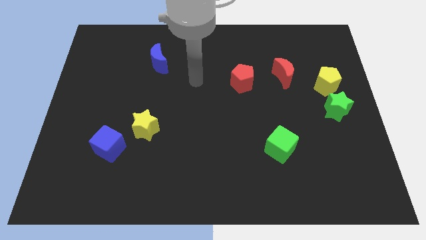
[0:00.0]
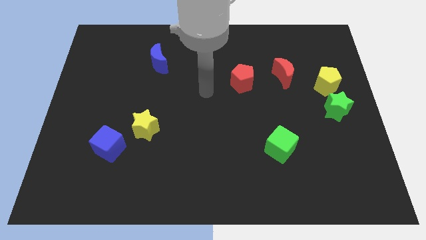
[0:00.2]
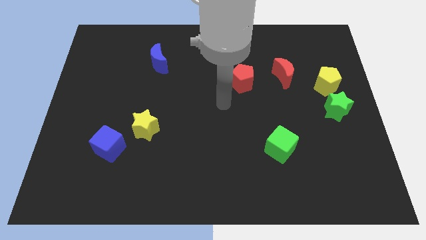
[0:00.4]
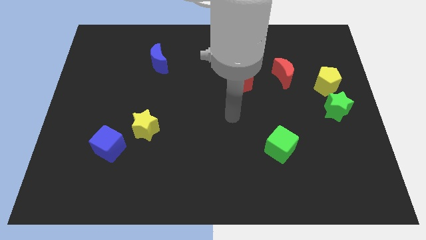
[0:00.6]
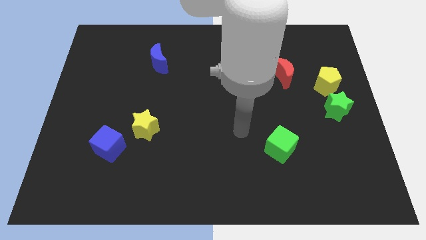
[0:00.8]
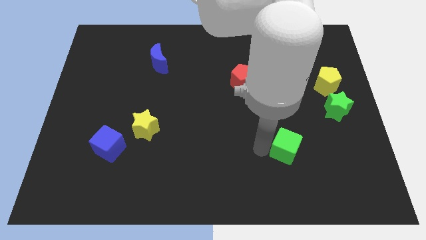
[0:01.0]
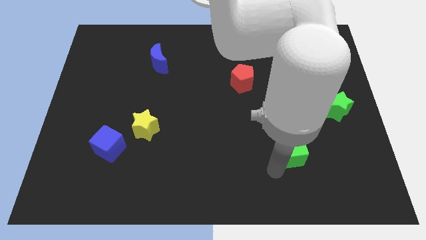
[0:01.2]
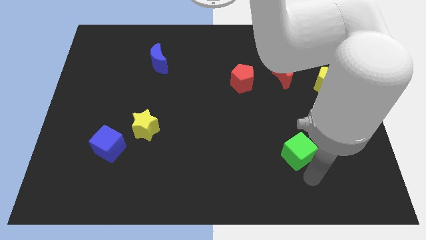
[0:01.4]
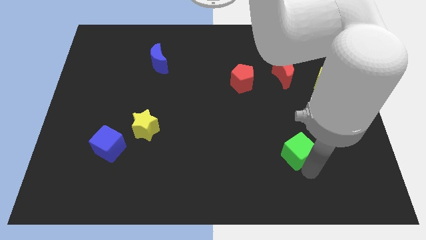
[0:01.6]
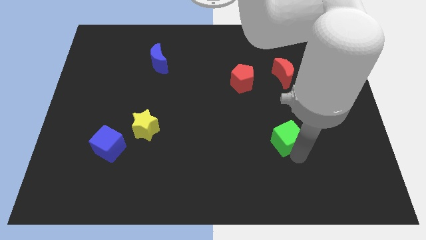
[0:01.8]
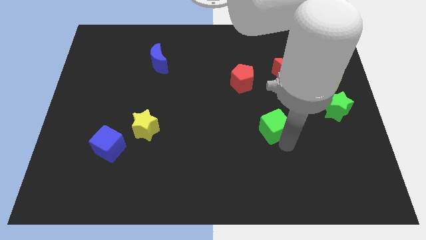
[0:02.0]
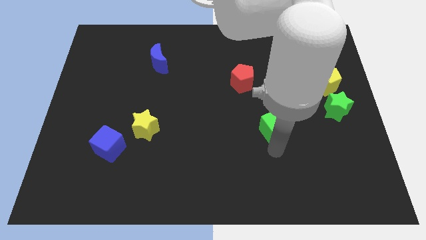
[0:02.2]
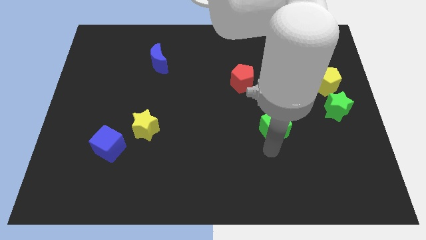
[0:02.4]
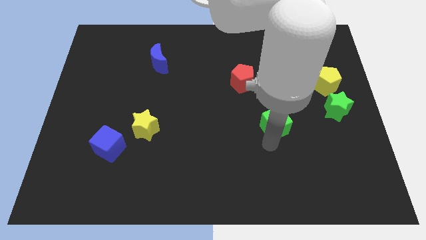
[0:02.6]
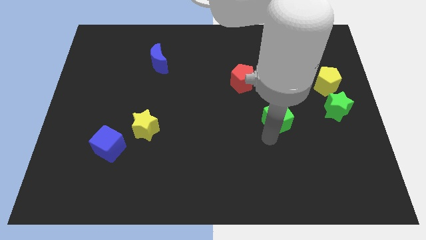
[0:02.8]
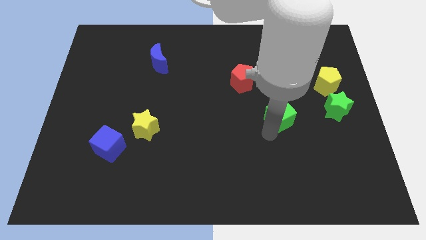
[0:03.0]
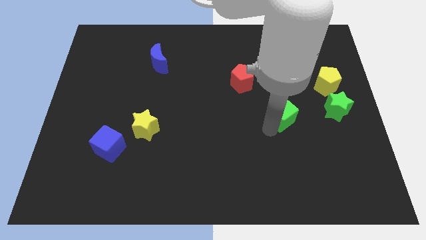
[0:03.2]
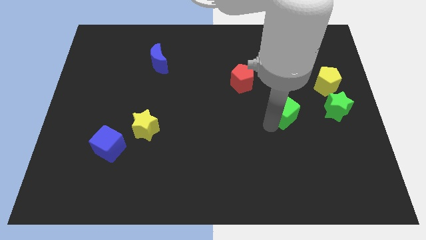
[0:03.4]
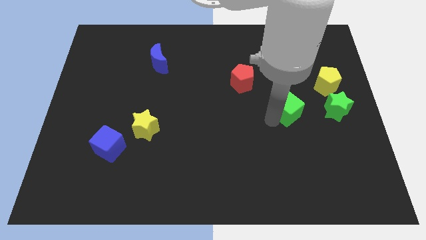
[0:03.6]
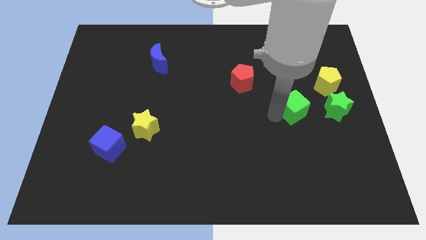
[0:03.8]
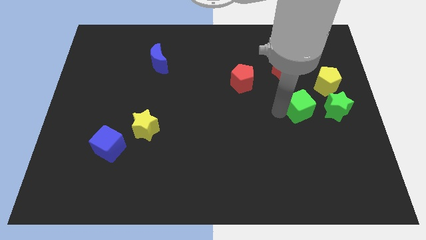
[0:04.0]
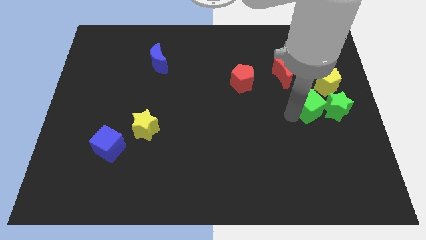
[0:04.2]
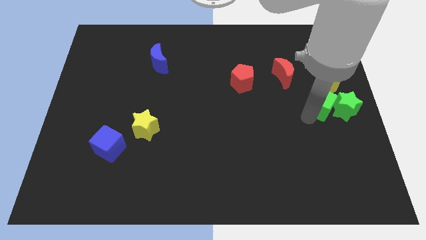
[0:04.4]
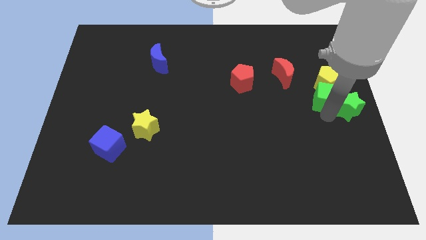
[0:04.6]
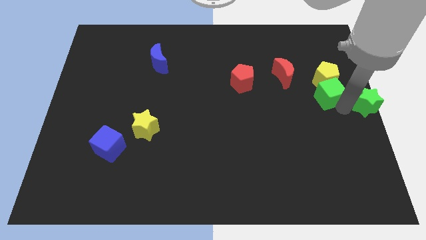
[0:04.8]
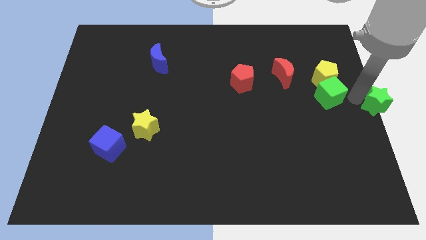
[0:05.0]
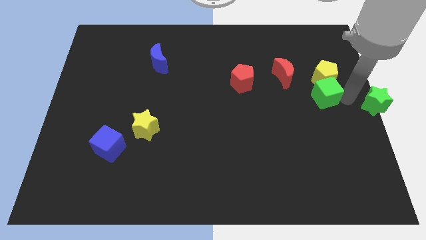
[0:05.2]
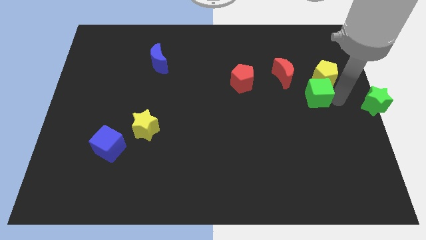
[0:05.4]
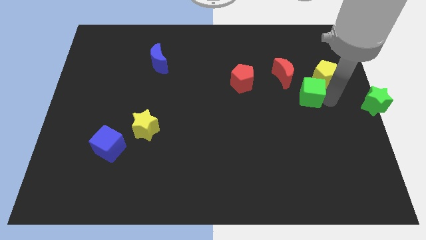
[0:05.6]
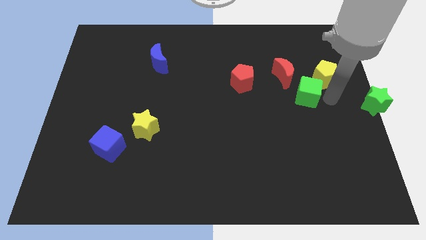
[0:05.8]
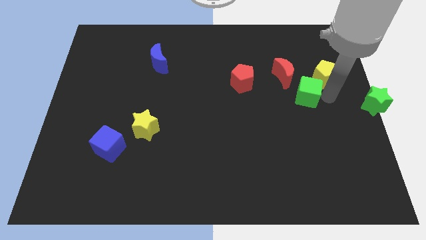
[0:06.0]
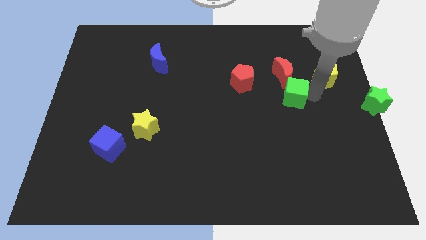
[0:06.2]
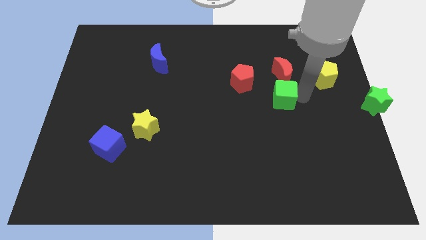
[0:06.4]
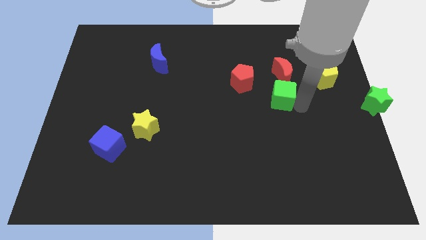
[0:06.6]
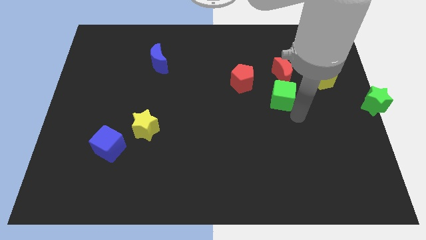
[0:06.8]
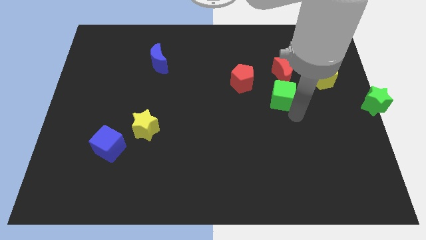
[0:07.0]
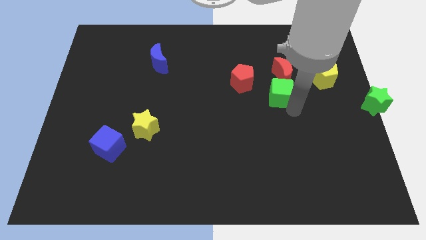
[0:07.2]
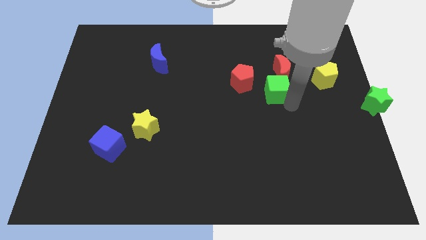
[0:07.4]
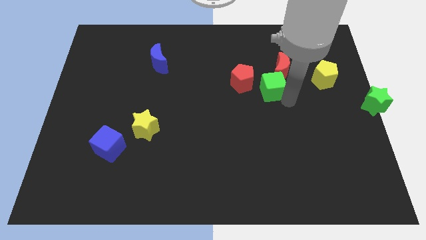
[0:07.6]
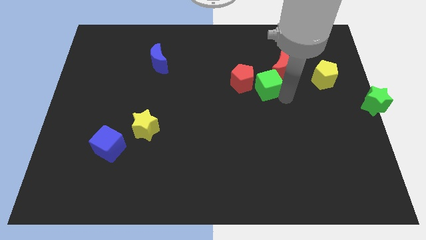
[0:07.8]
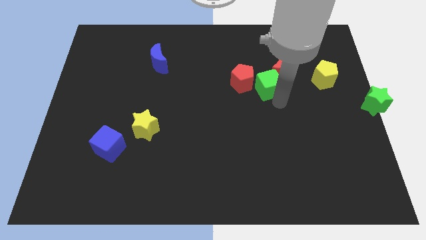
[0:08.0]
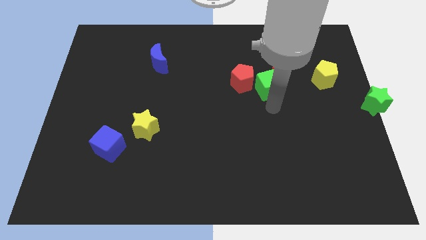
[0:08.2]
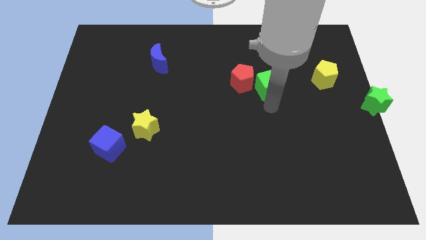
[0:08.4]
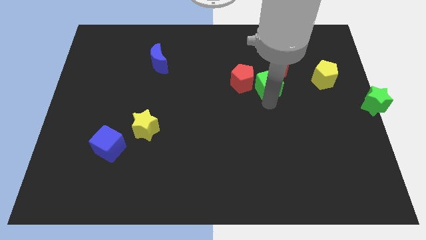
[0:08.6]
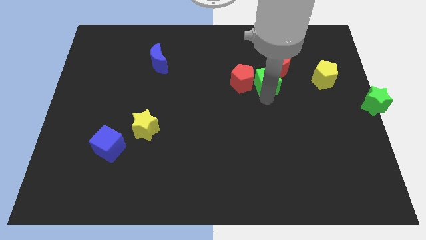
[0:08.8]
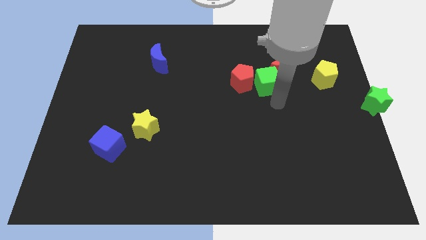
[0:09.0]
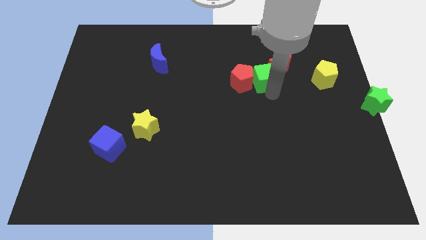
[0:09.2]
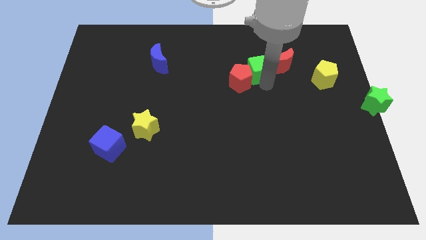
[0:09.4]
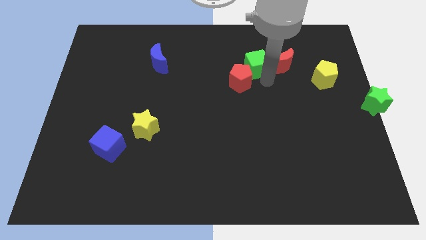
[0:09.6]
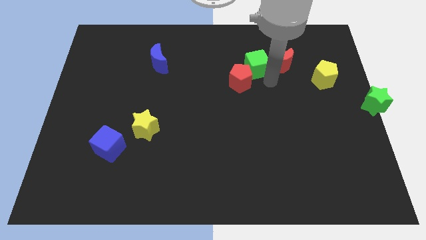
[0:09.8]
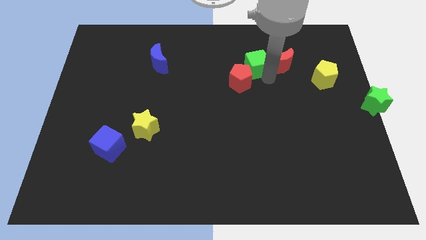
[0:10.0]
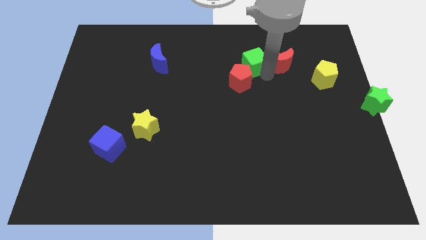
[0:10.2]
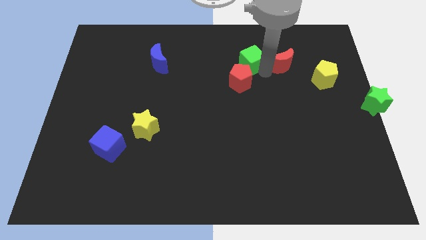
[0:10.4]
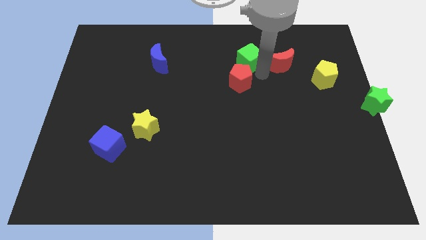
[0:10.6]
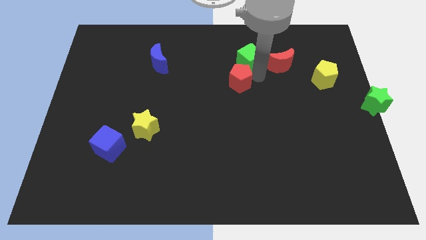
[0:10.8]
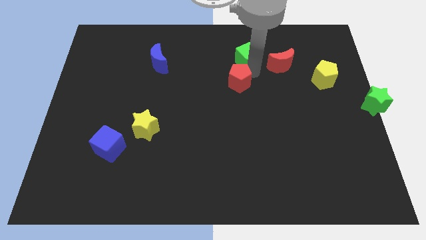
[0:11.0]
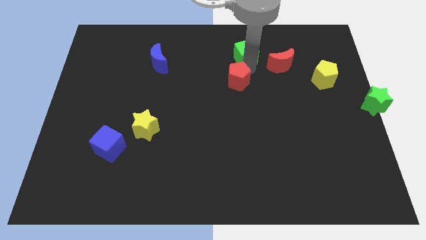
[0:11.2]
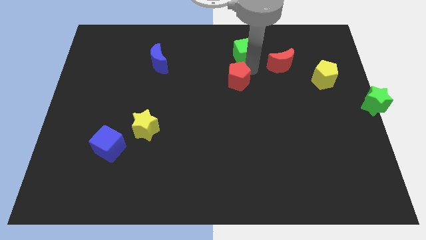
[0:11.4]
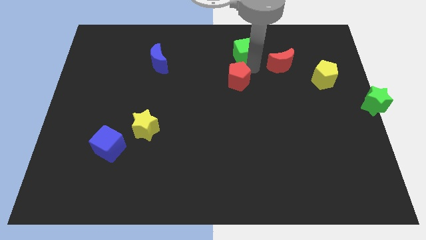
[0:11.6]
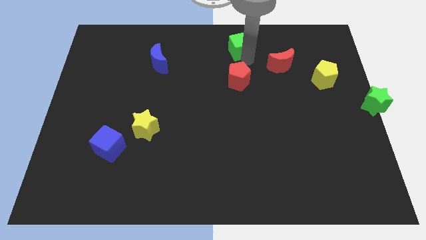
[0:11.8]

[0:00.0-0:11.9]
move the green cube to the top

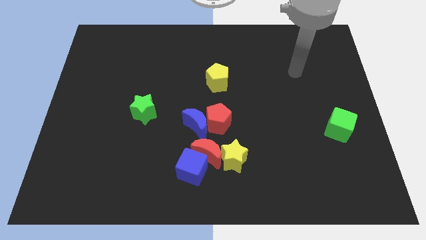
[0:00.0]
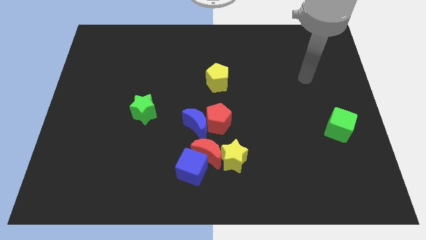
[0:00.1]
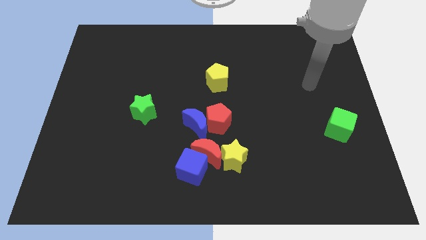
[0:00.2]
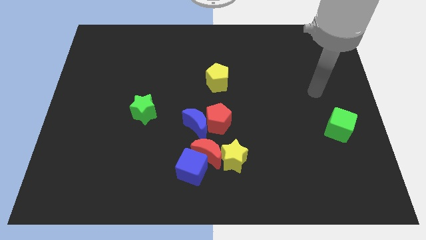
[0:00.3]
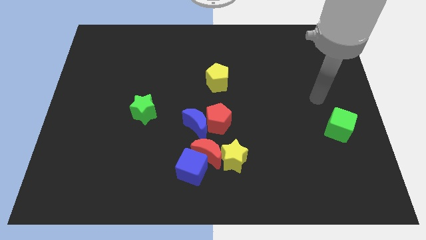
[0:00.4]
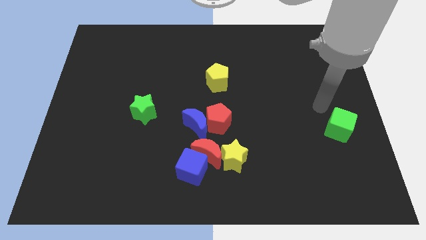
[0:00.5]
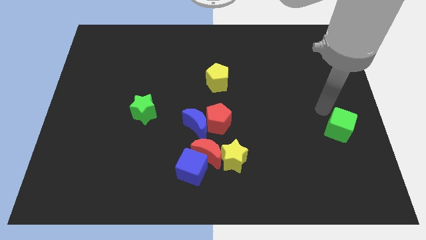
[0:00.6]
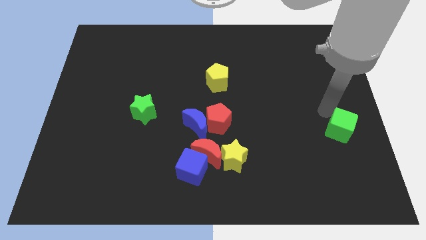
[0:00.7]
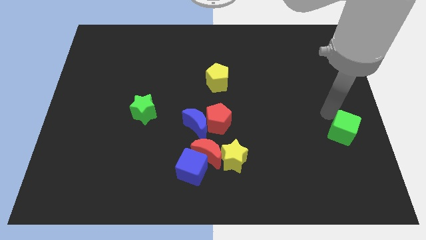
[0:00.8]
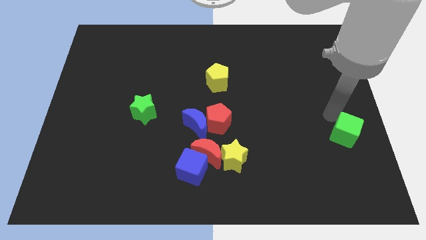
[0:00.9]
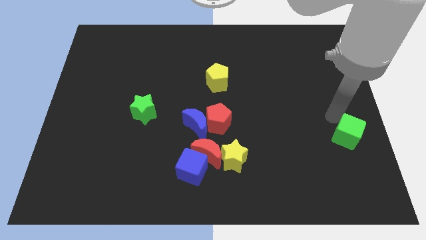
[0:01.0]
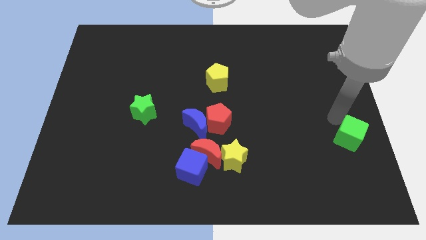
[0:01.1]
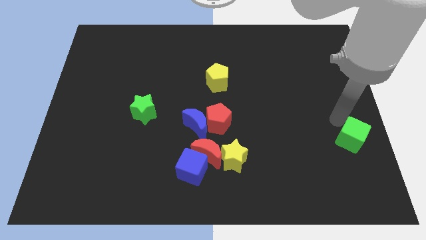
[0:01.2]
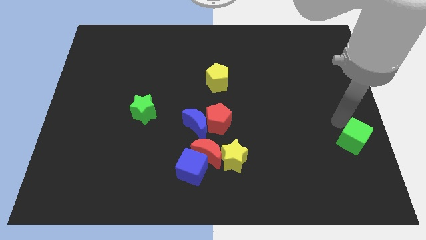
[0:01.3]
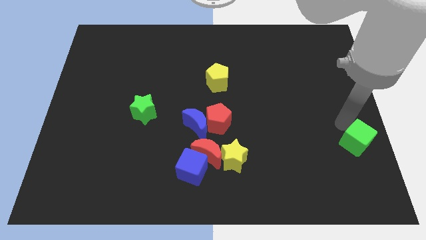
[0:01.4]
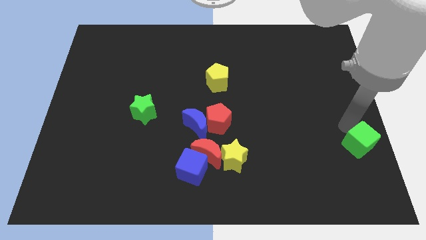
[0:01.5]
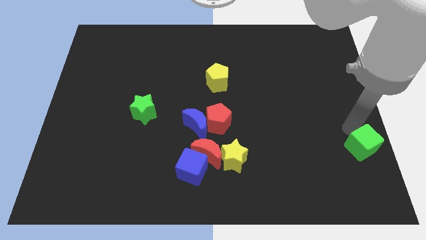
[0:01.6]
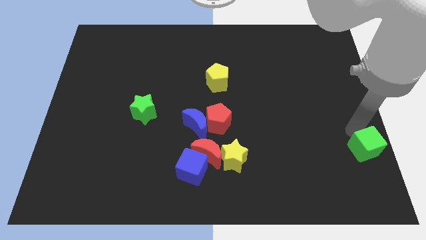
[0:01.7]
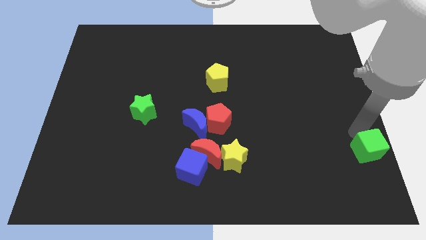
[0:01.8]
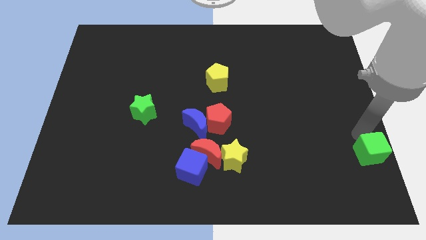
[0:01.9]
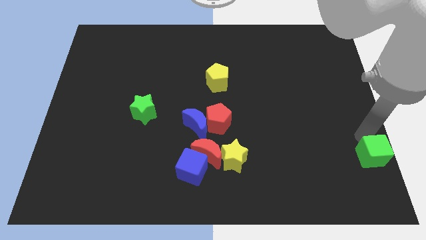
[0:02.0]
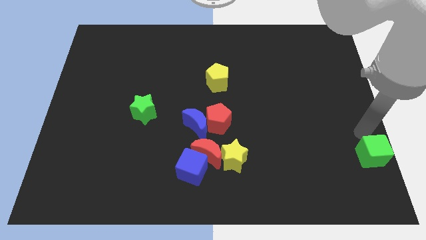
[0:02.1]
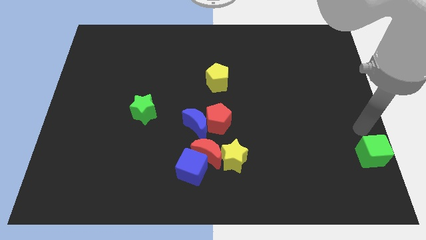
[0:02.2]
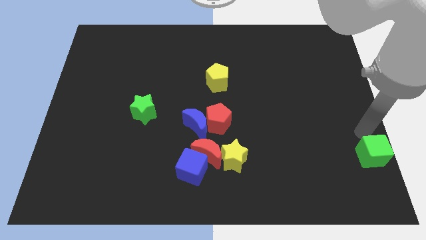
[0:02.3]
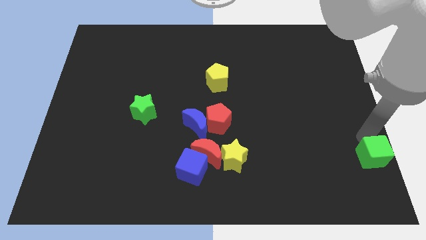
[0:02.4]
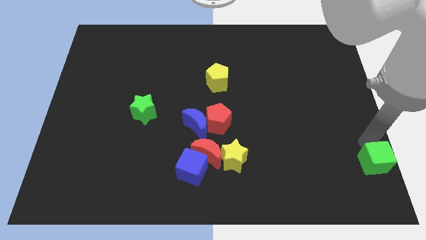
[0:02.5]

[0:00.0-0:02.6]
put the green cube to the lower right corner
